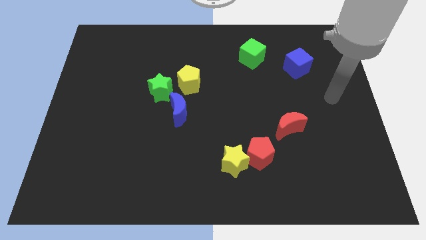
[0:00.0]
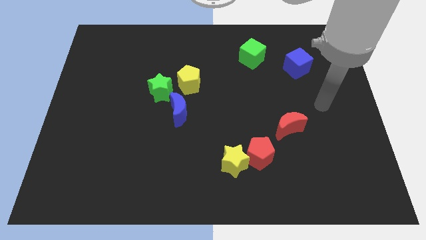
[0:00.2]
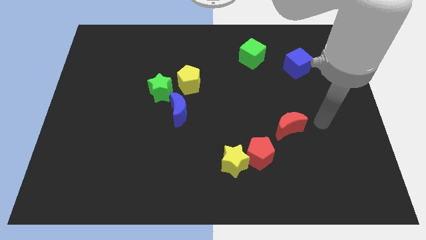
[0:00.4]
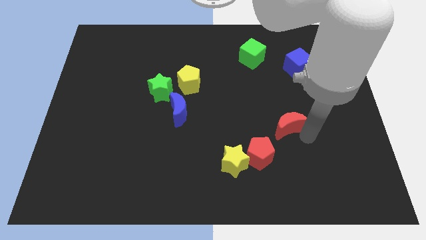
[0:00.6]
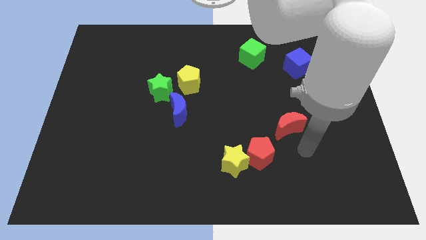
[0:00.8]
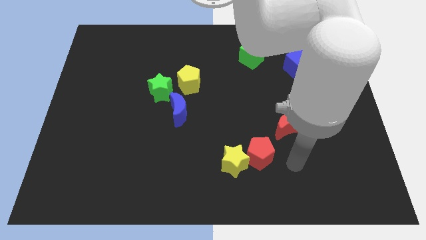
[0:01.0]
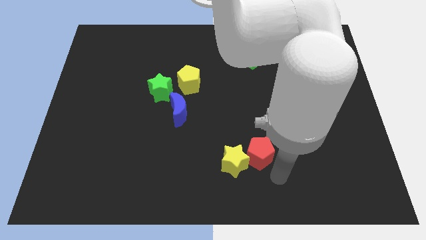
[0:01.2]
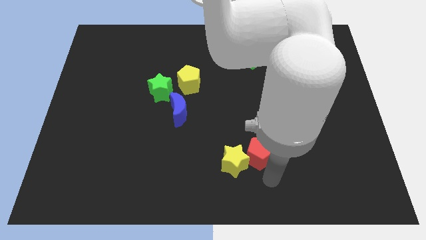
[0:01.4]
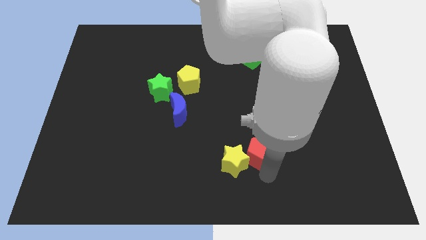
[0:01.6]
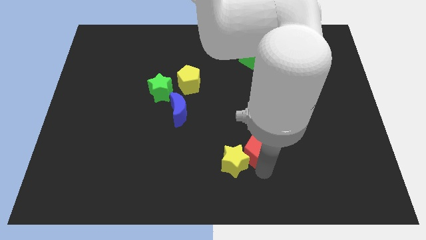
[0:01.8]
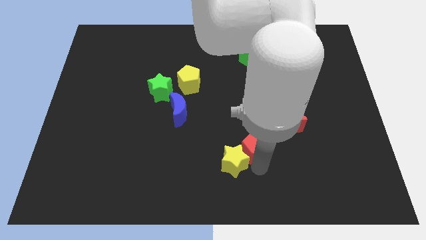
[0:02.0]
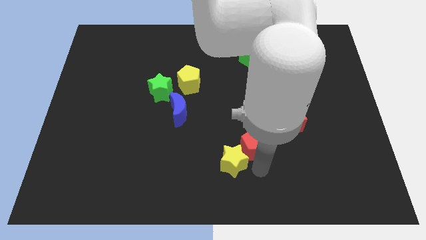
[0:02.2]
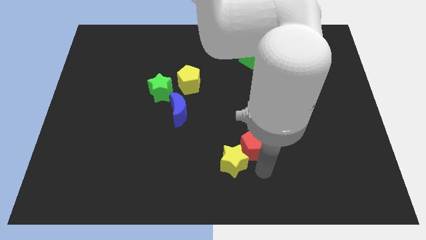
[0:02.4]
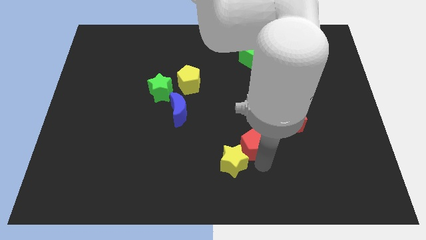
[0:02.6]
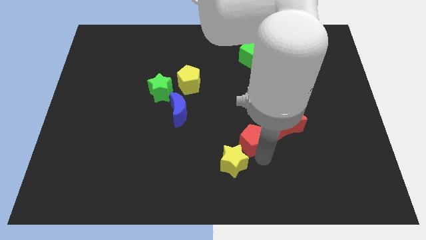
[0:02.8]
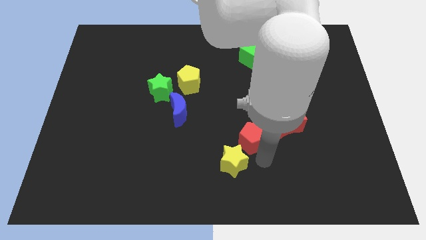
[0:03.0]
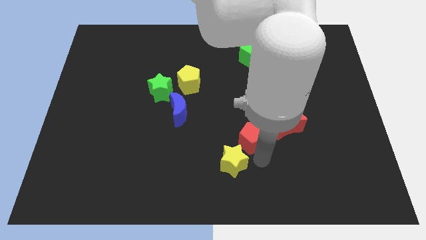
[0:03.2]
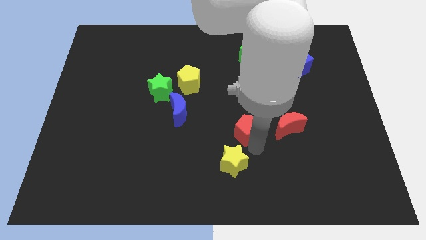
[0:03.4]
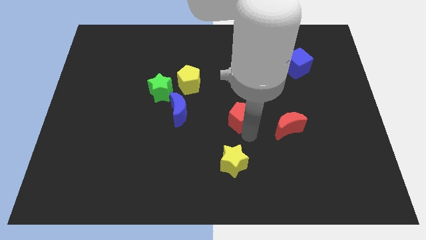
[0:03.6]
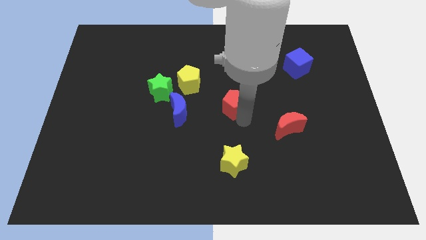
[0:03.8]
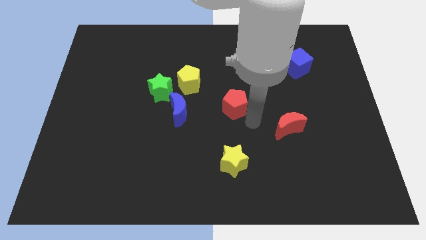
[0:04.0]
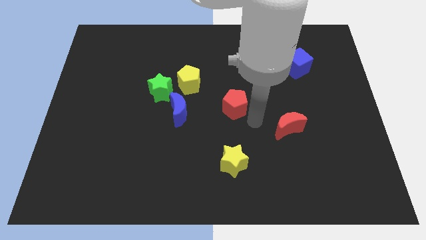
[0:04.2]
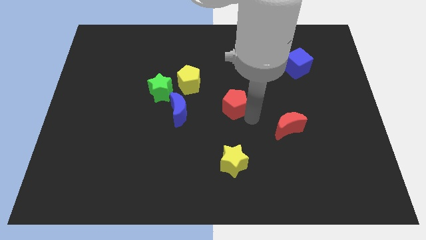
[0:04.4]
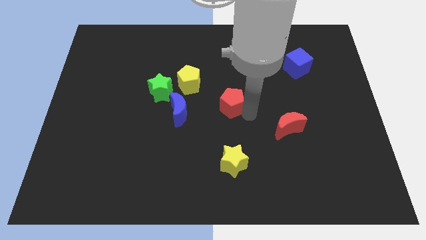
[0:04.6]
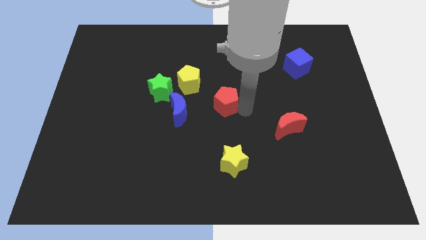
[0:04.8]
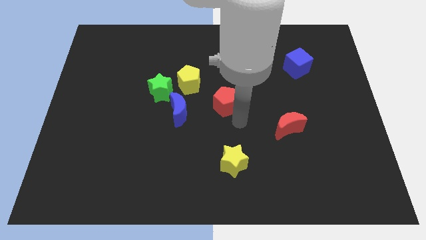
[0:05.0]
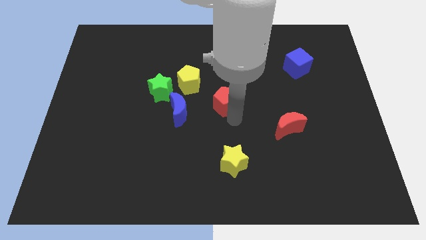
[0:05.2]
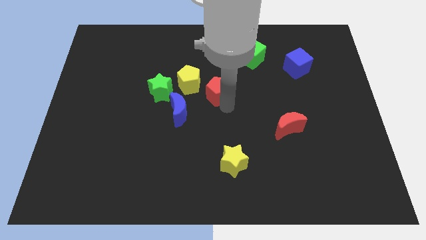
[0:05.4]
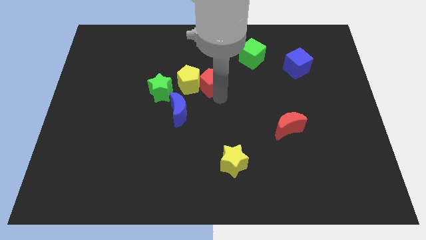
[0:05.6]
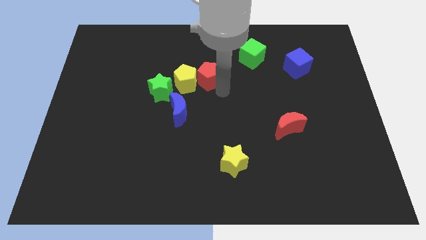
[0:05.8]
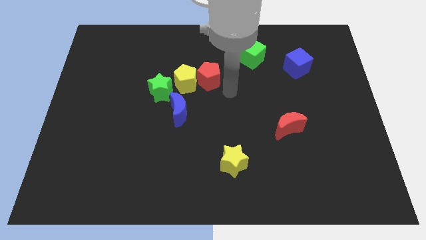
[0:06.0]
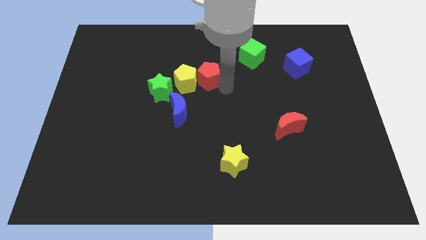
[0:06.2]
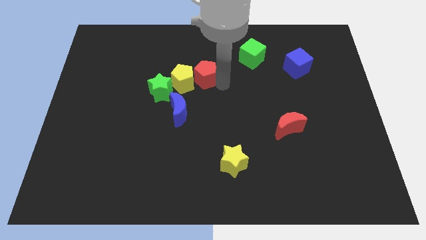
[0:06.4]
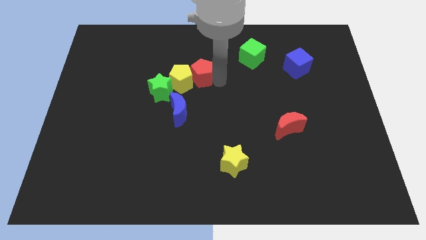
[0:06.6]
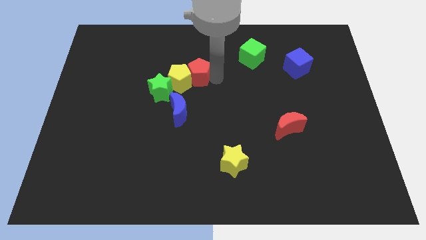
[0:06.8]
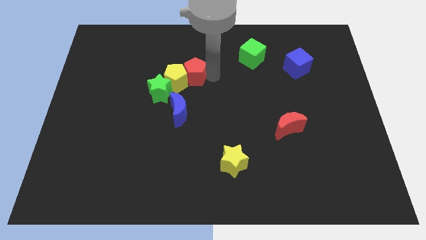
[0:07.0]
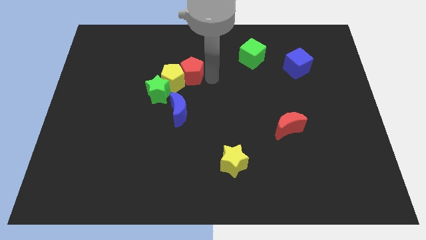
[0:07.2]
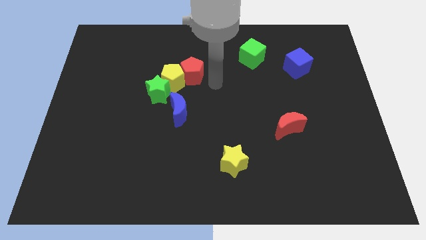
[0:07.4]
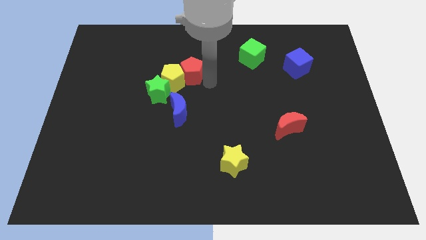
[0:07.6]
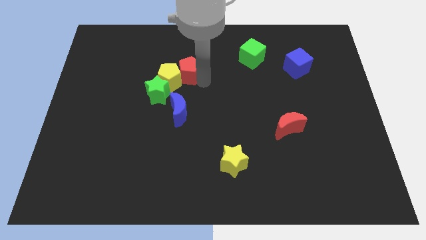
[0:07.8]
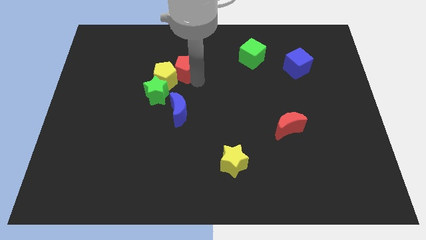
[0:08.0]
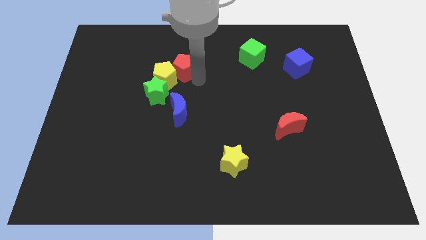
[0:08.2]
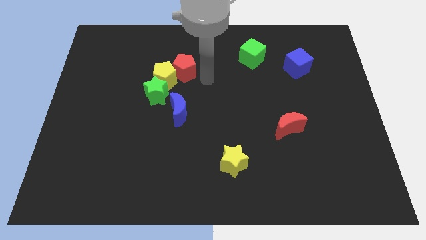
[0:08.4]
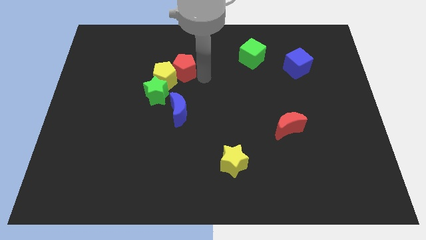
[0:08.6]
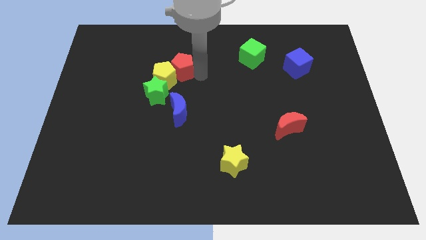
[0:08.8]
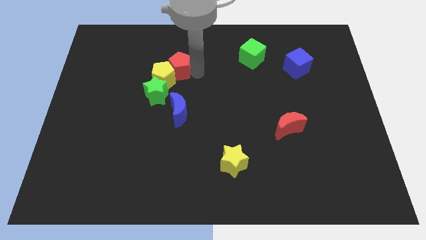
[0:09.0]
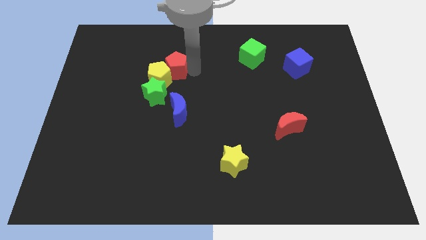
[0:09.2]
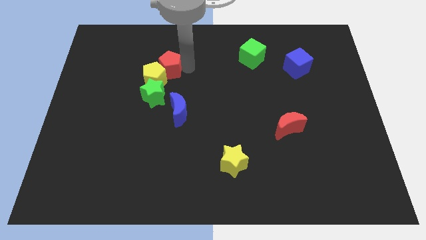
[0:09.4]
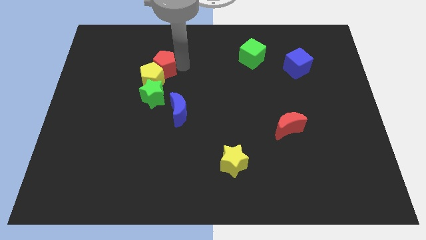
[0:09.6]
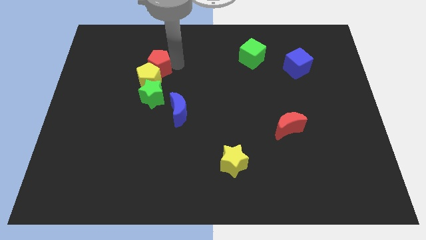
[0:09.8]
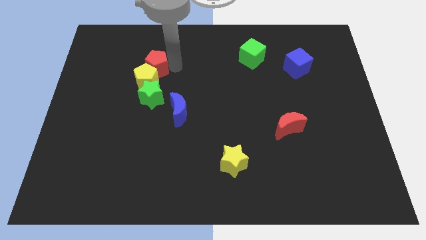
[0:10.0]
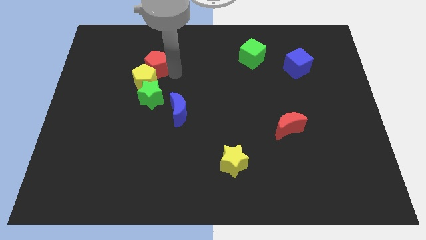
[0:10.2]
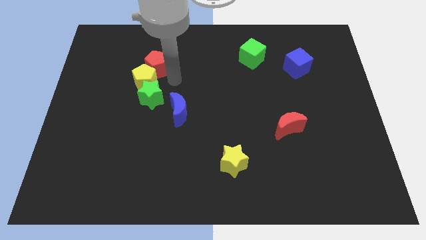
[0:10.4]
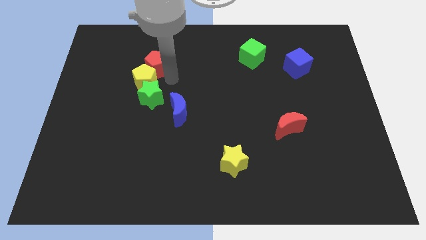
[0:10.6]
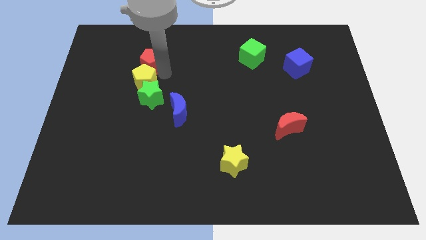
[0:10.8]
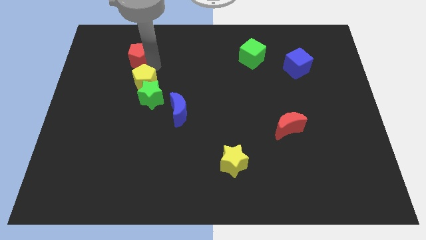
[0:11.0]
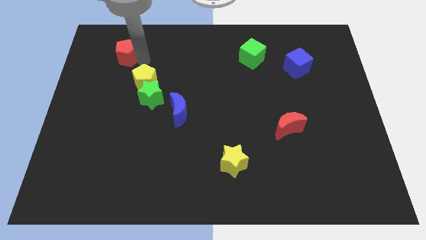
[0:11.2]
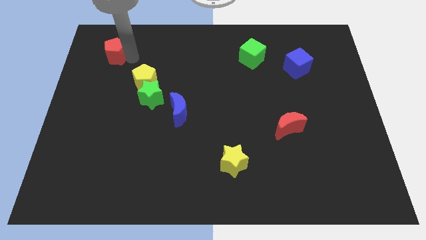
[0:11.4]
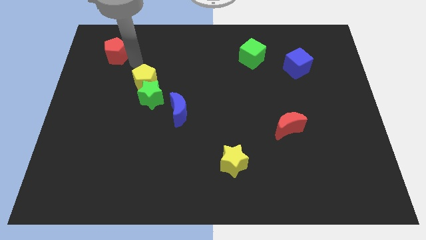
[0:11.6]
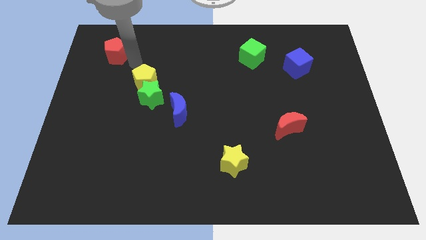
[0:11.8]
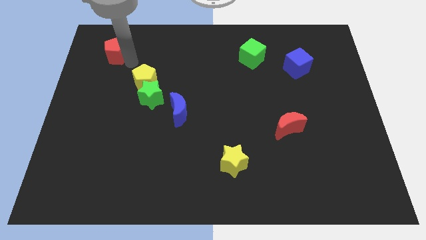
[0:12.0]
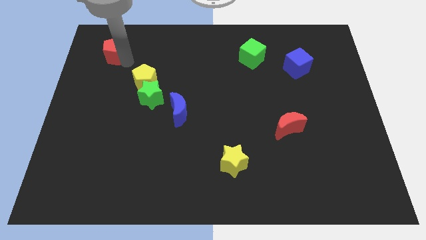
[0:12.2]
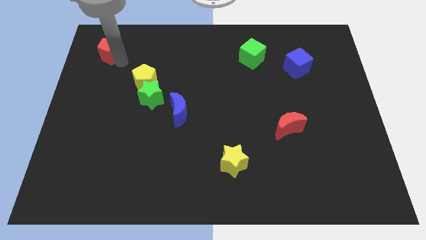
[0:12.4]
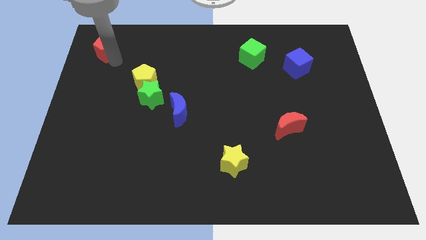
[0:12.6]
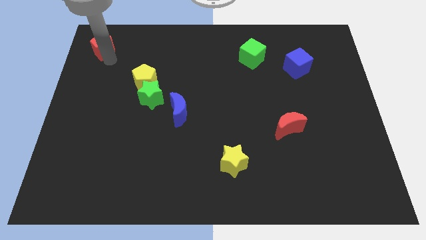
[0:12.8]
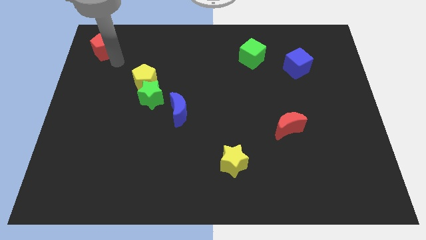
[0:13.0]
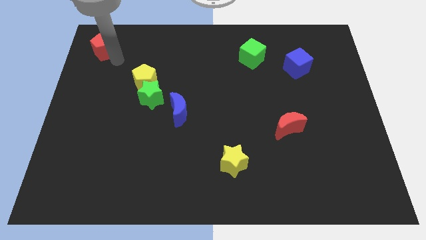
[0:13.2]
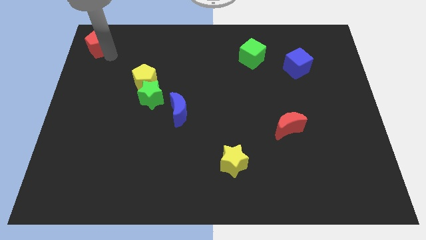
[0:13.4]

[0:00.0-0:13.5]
slide the red pentagon to the top left corner
